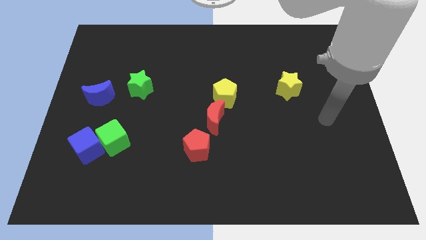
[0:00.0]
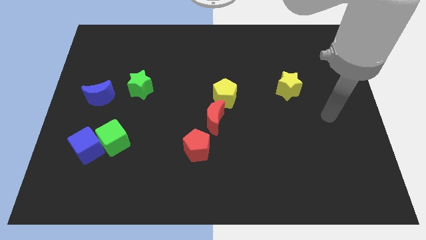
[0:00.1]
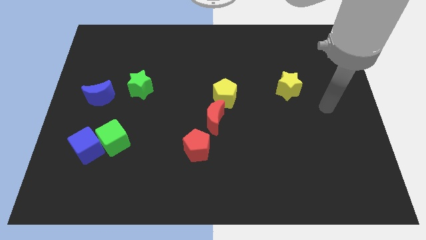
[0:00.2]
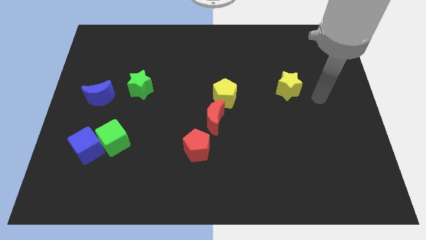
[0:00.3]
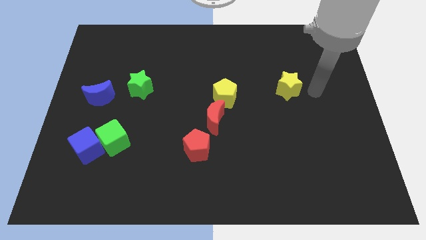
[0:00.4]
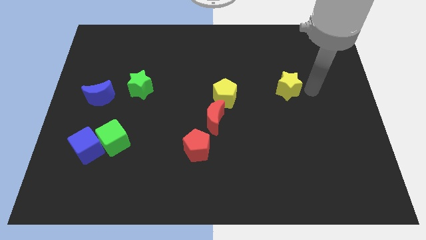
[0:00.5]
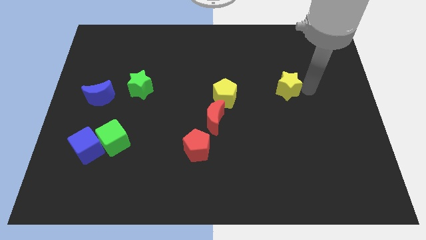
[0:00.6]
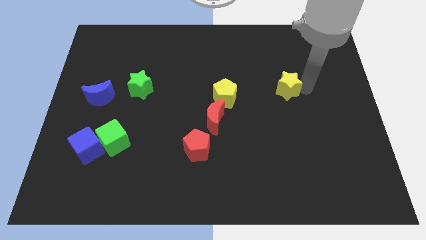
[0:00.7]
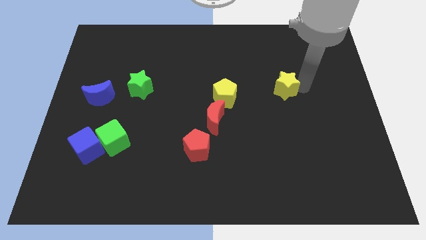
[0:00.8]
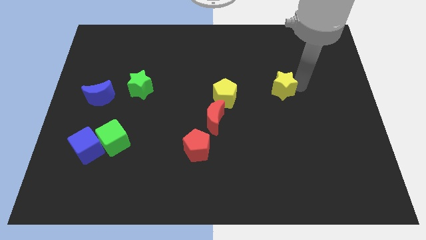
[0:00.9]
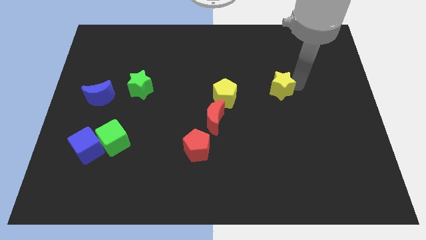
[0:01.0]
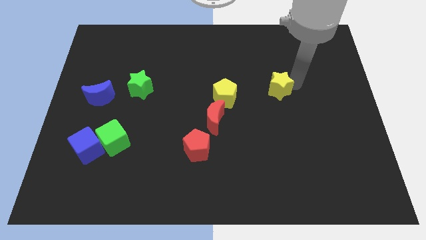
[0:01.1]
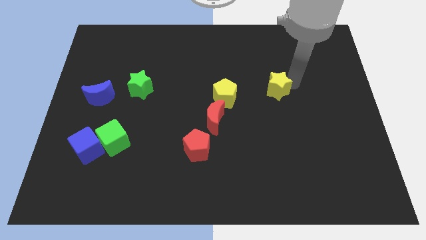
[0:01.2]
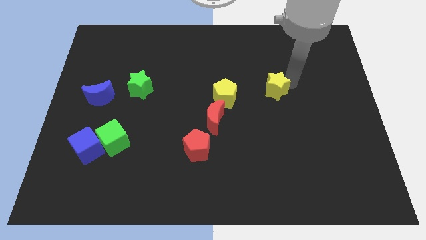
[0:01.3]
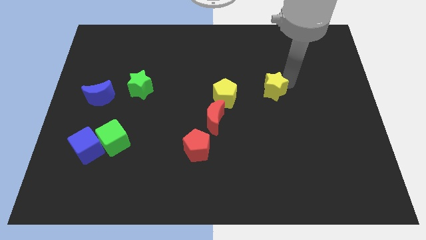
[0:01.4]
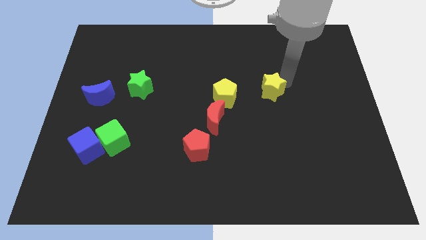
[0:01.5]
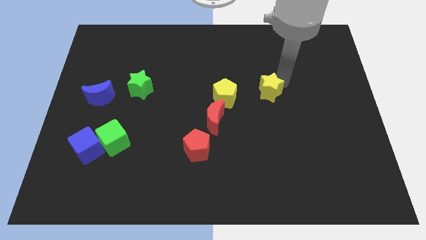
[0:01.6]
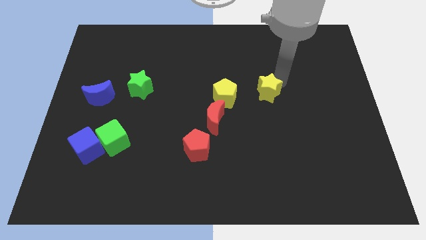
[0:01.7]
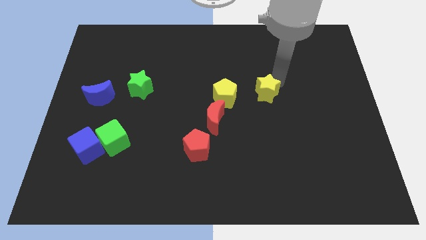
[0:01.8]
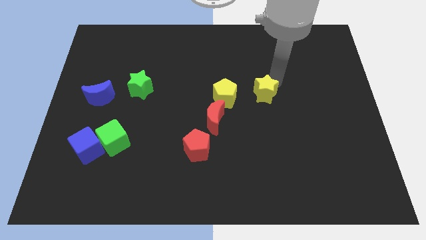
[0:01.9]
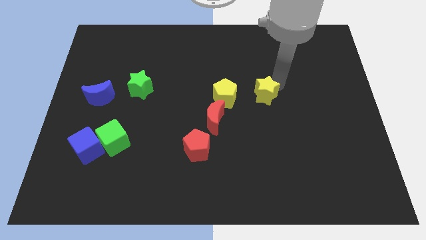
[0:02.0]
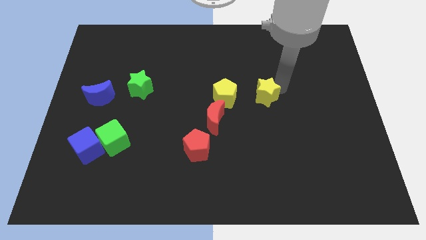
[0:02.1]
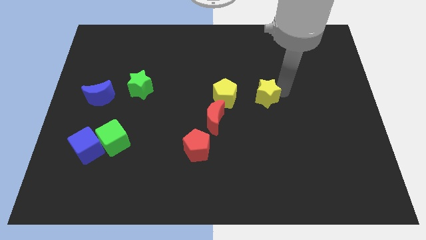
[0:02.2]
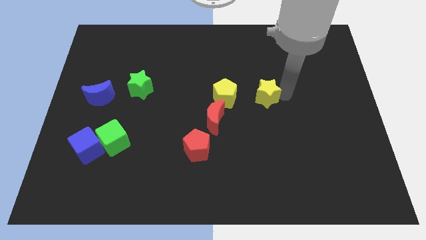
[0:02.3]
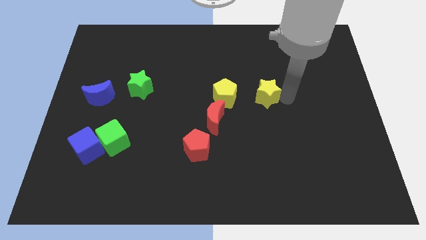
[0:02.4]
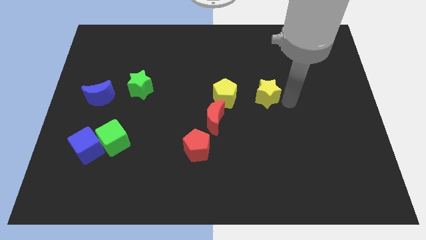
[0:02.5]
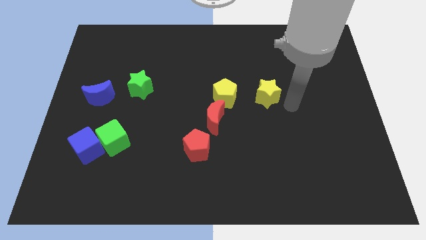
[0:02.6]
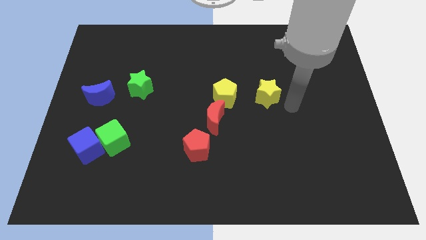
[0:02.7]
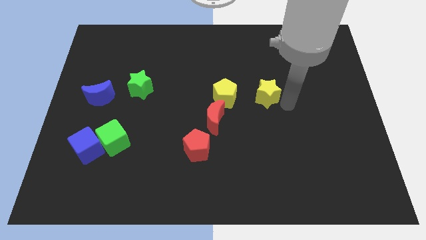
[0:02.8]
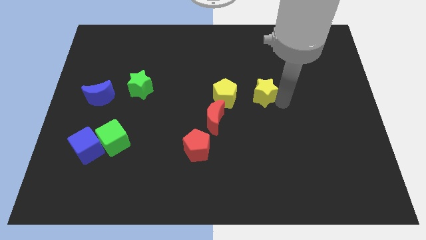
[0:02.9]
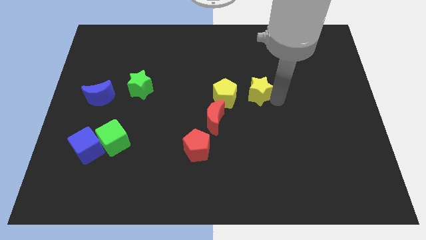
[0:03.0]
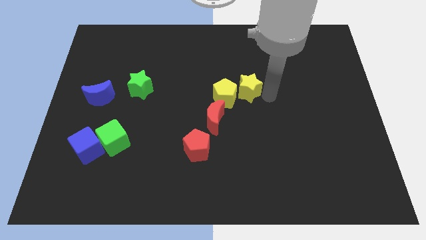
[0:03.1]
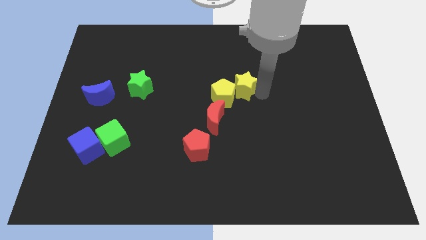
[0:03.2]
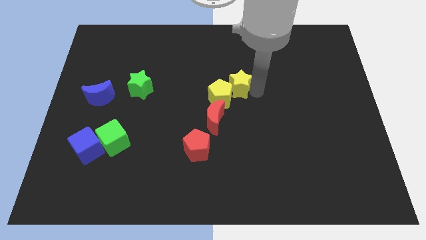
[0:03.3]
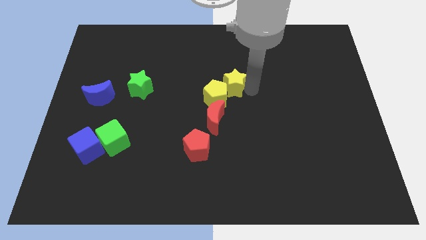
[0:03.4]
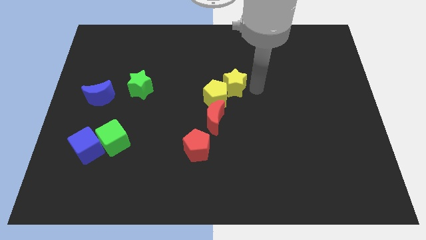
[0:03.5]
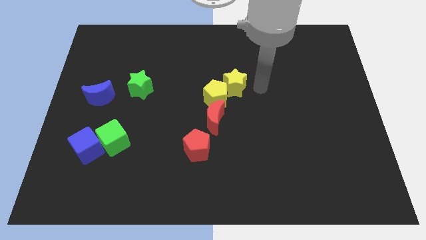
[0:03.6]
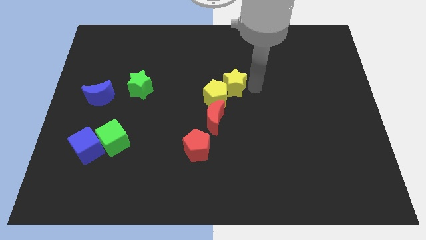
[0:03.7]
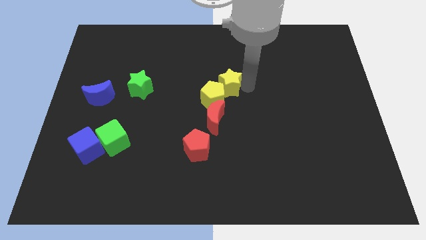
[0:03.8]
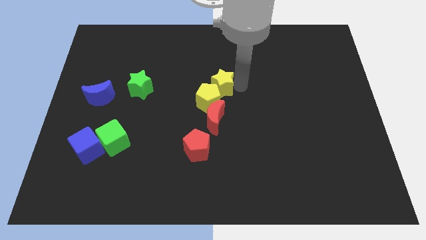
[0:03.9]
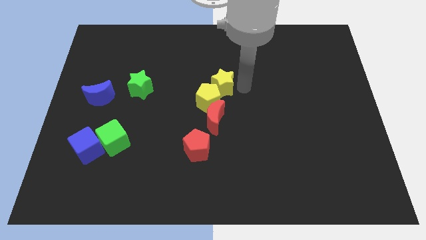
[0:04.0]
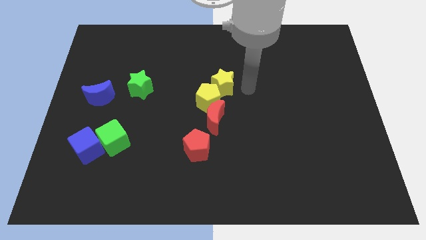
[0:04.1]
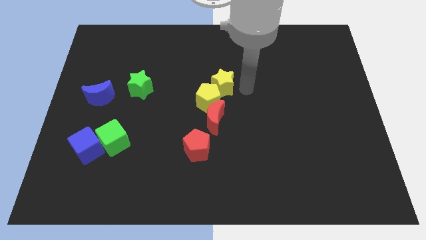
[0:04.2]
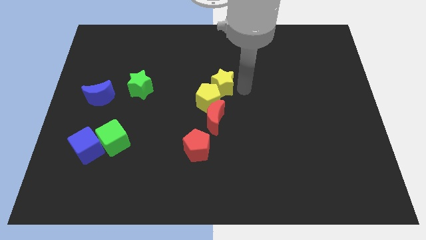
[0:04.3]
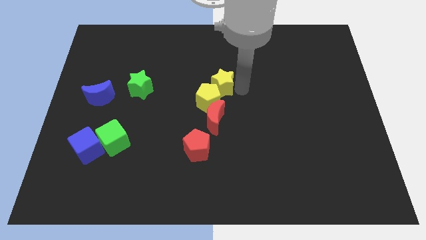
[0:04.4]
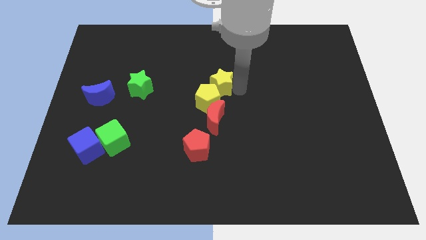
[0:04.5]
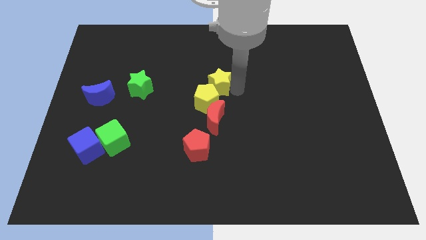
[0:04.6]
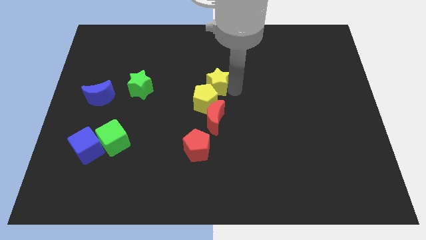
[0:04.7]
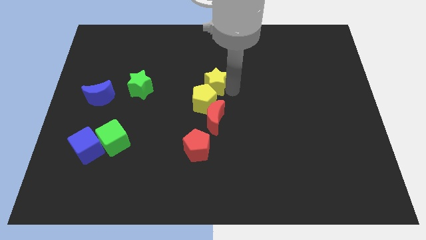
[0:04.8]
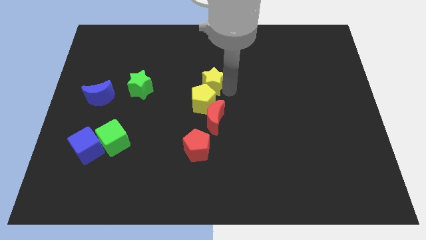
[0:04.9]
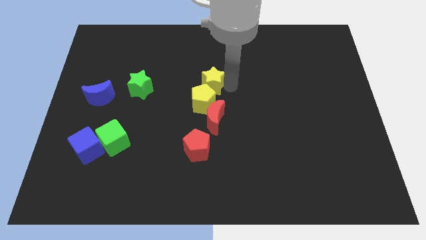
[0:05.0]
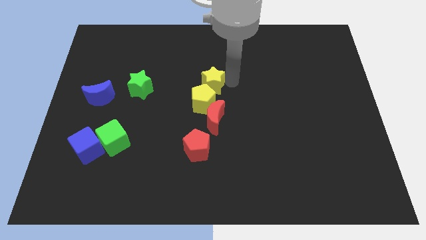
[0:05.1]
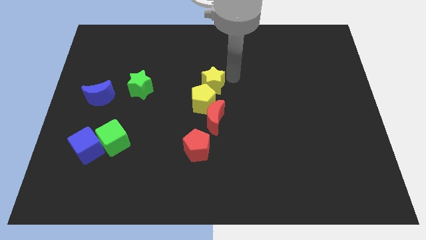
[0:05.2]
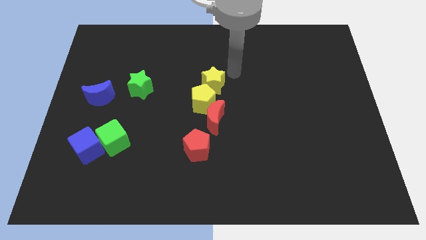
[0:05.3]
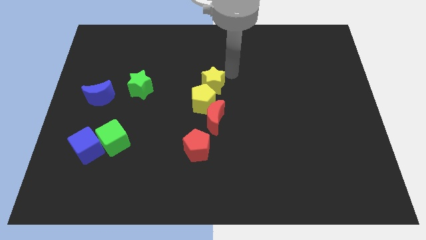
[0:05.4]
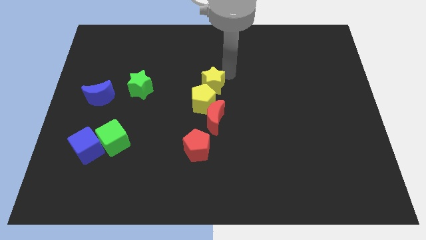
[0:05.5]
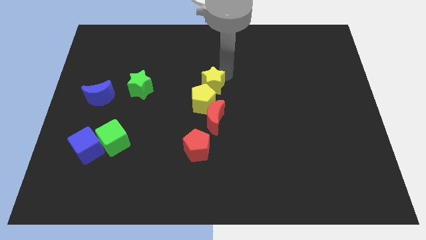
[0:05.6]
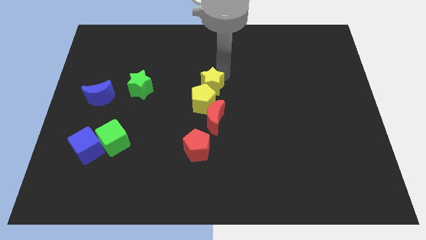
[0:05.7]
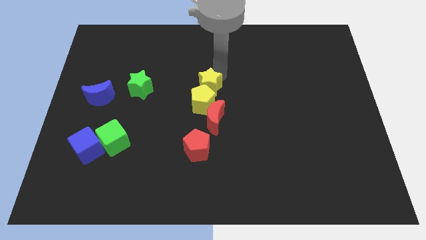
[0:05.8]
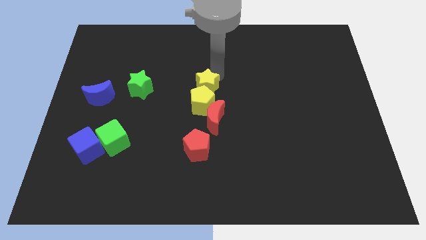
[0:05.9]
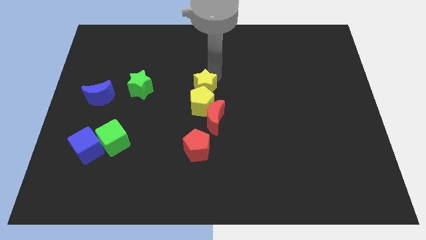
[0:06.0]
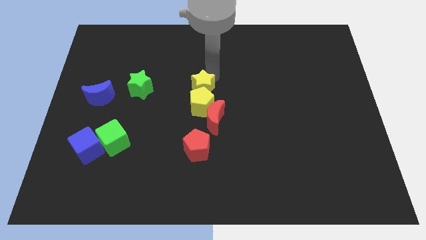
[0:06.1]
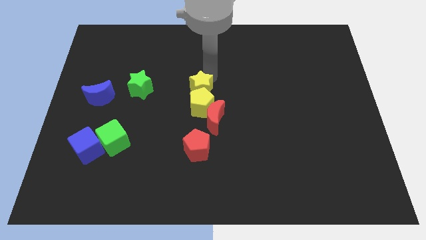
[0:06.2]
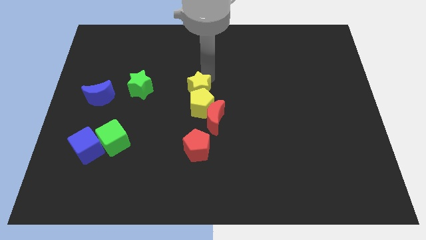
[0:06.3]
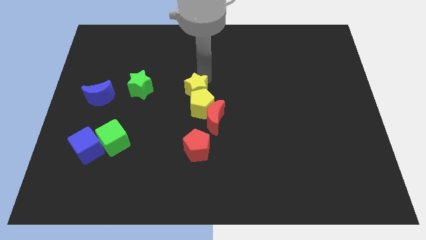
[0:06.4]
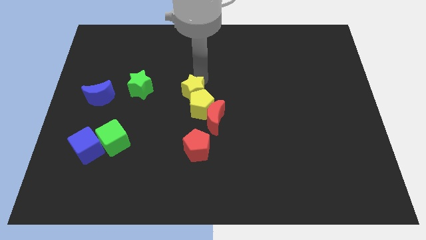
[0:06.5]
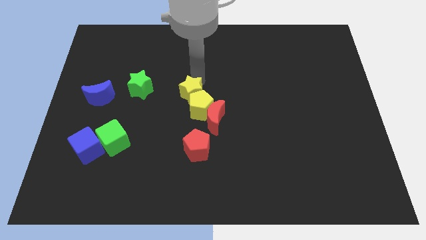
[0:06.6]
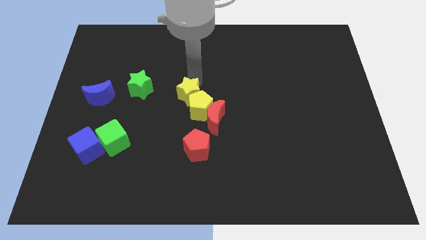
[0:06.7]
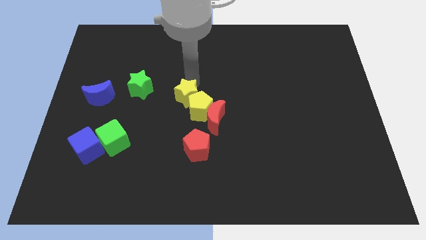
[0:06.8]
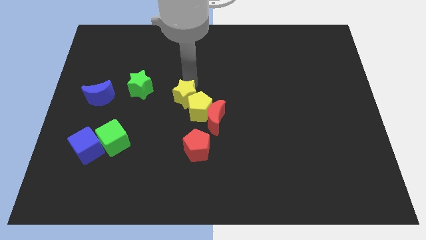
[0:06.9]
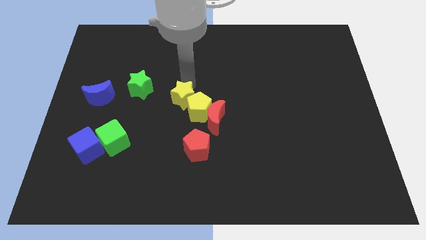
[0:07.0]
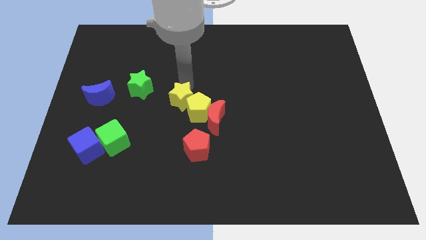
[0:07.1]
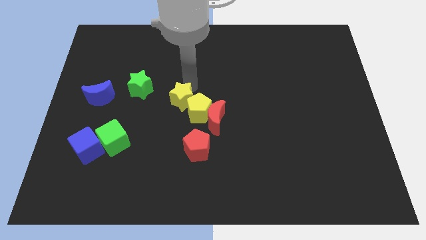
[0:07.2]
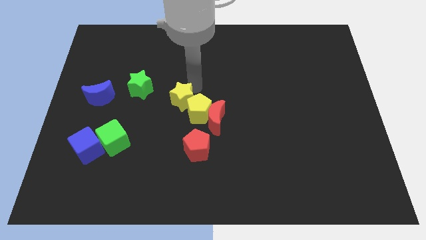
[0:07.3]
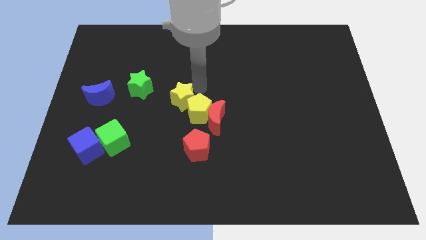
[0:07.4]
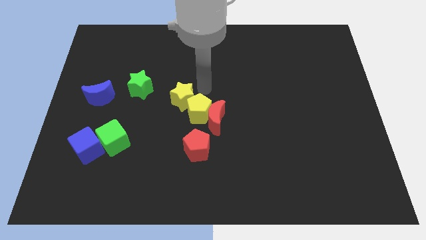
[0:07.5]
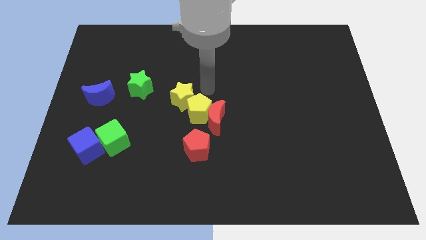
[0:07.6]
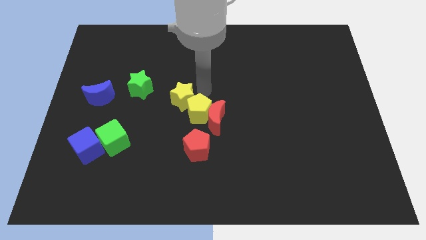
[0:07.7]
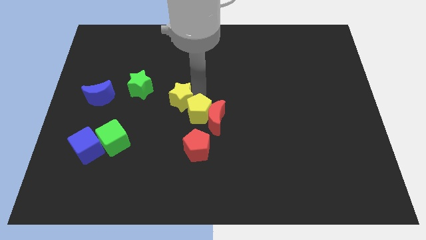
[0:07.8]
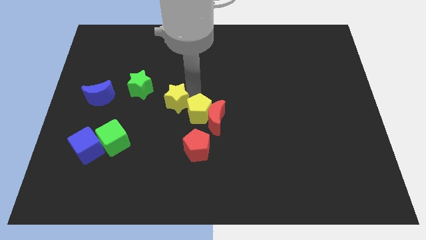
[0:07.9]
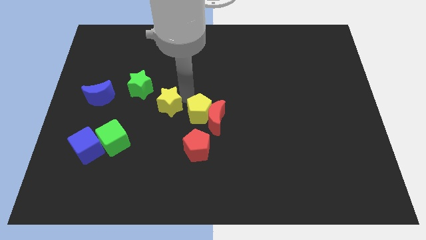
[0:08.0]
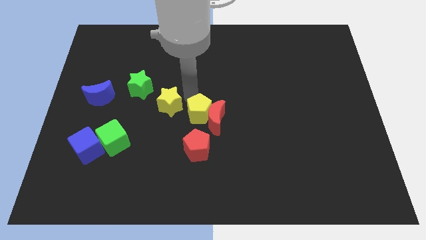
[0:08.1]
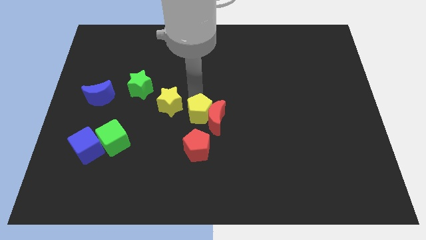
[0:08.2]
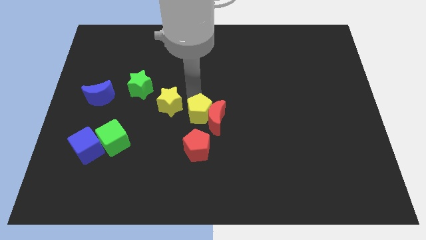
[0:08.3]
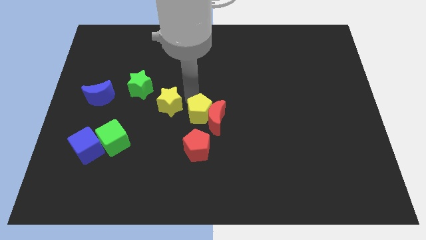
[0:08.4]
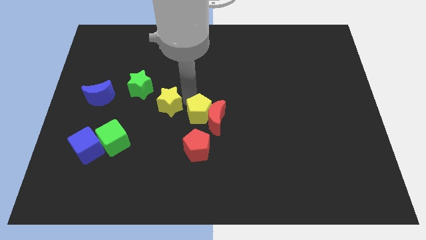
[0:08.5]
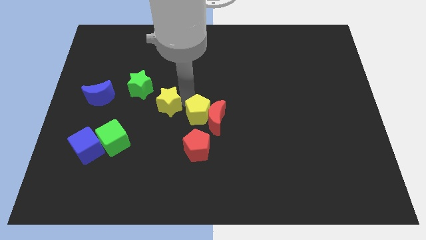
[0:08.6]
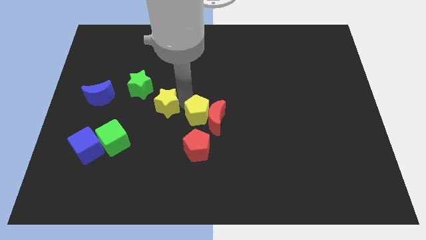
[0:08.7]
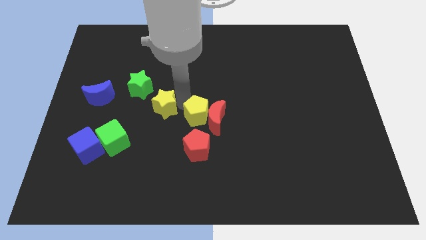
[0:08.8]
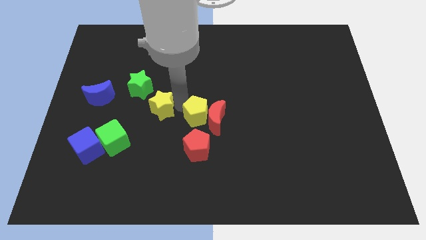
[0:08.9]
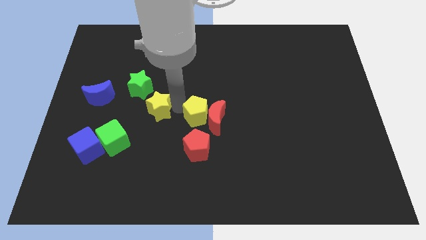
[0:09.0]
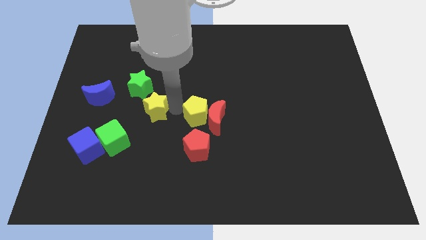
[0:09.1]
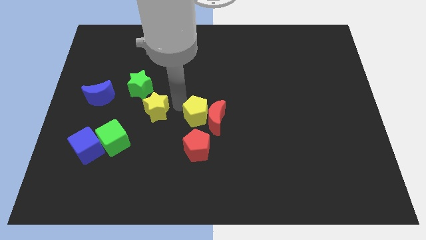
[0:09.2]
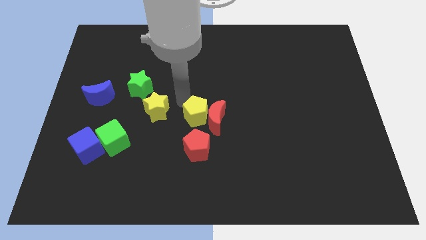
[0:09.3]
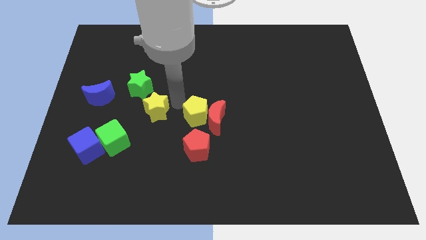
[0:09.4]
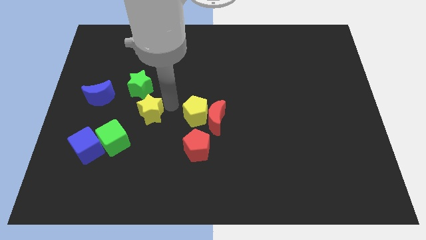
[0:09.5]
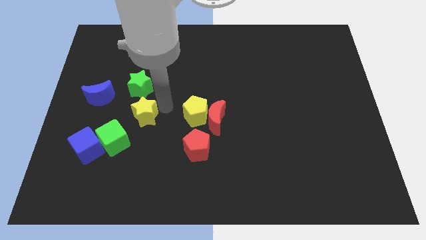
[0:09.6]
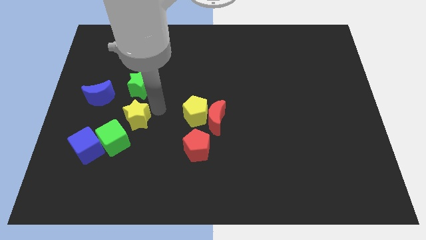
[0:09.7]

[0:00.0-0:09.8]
put the yellow star to the top right side of the blue cube
